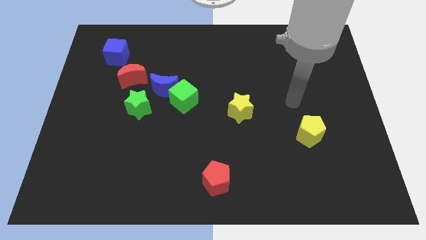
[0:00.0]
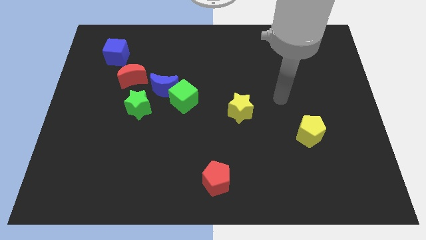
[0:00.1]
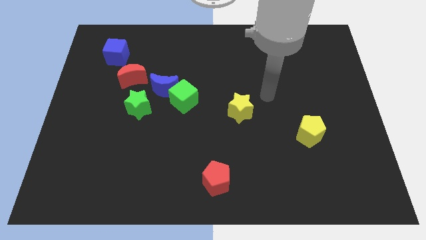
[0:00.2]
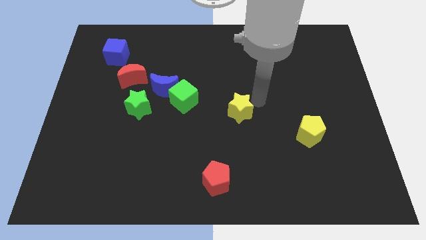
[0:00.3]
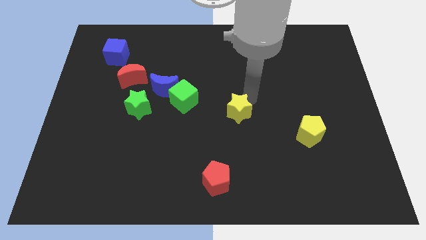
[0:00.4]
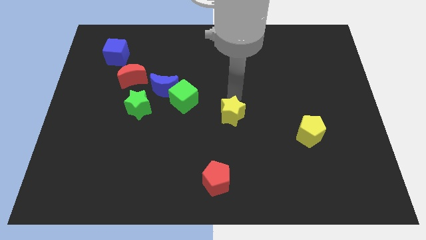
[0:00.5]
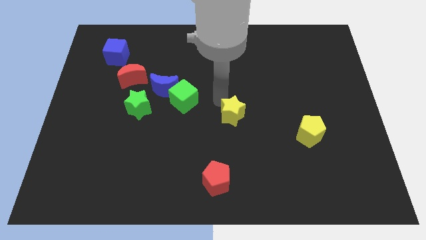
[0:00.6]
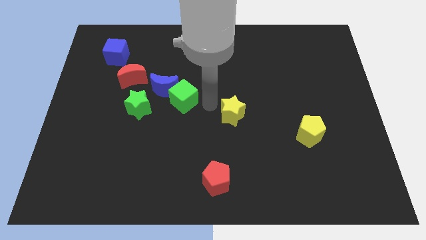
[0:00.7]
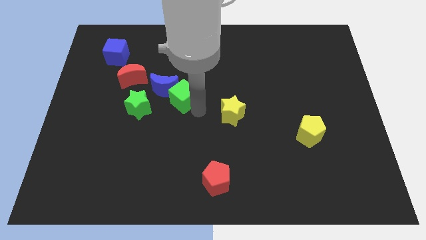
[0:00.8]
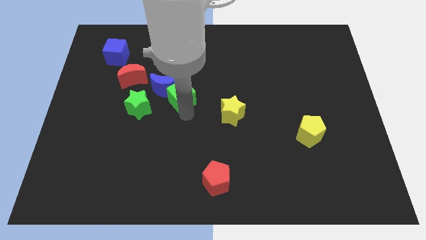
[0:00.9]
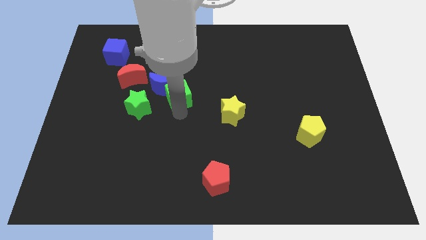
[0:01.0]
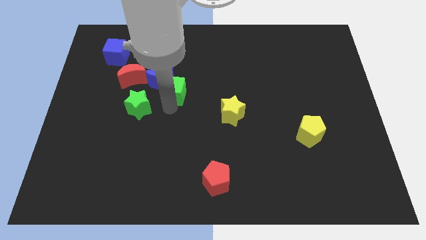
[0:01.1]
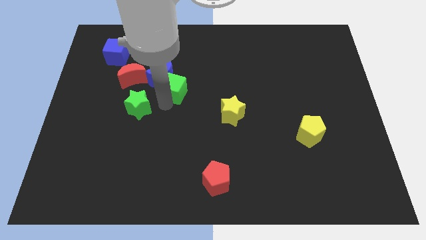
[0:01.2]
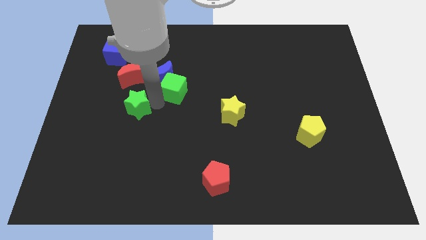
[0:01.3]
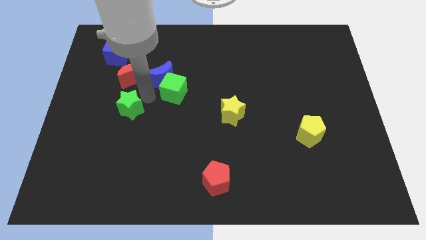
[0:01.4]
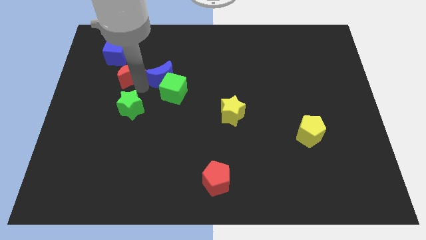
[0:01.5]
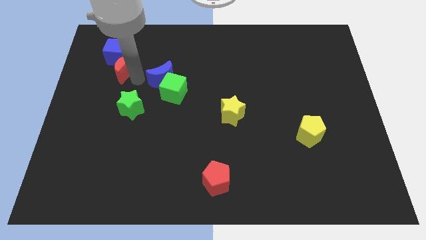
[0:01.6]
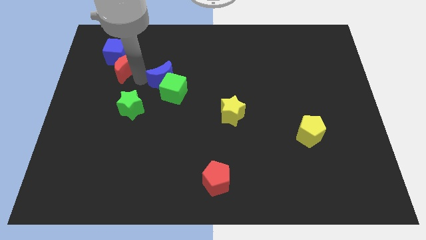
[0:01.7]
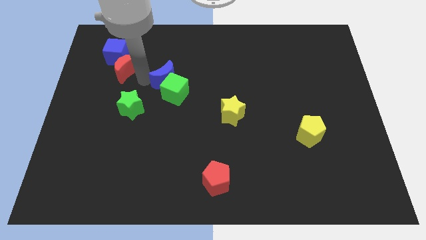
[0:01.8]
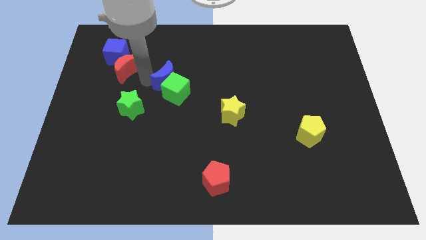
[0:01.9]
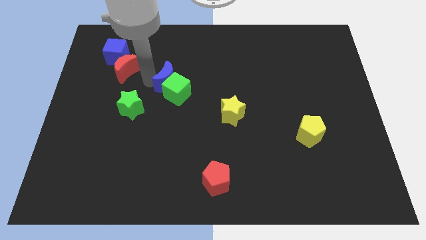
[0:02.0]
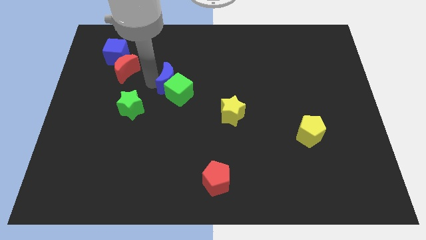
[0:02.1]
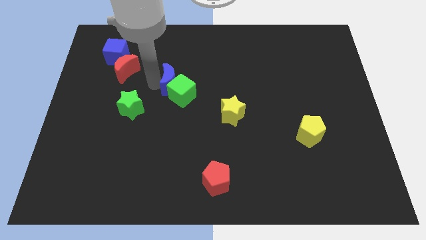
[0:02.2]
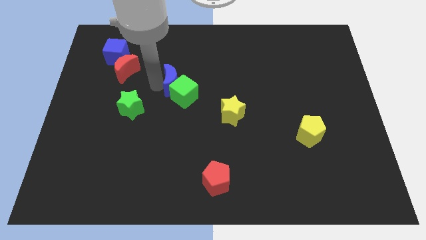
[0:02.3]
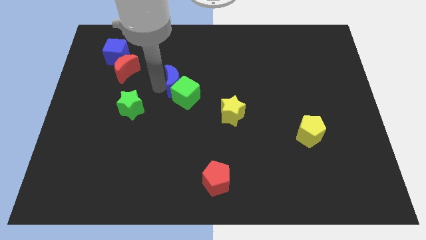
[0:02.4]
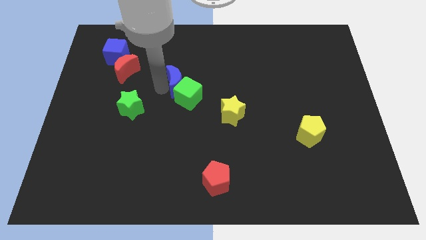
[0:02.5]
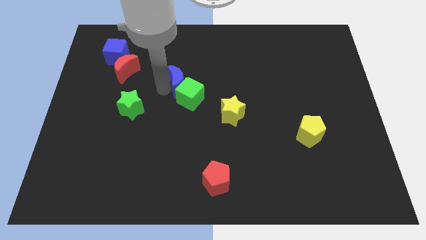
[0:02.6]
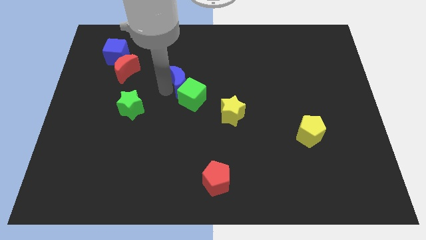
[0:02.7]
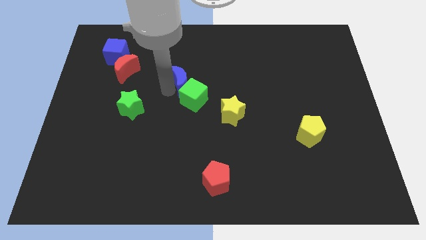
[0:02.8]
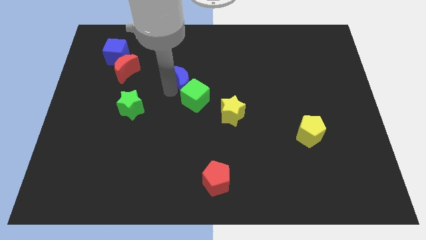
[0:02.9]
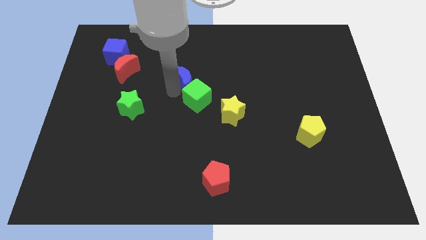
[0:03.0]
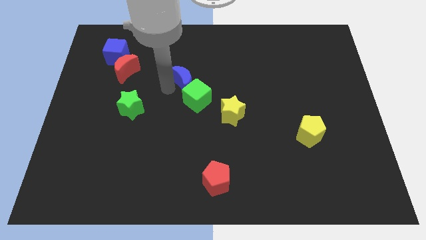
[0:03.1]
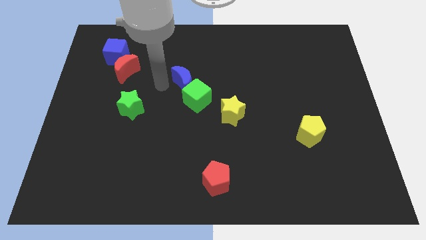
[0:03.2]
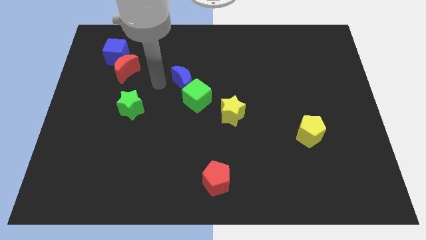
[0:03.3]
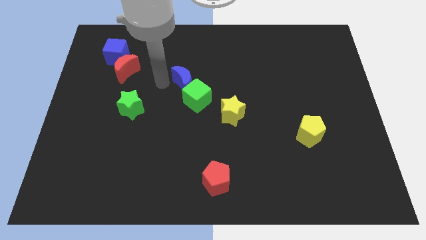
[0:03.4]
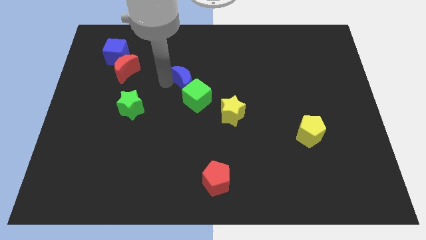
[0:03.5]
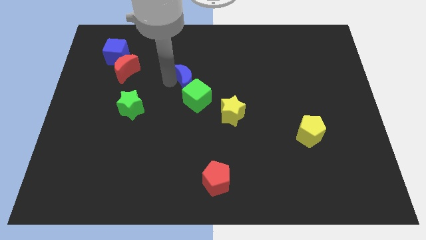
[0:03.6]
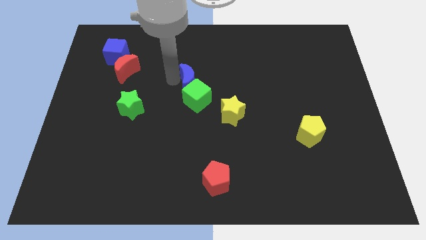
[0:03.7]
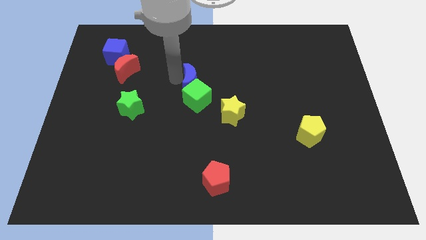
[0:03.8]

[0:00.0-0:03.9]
move the blue moon diagonally up and to the right of the green cube

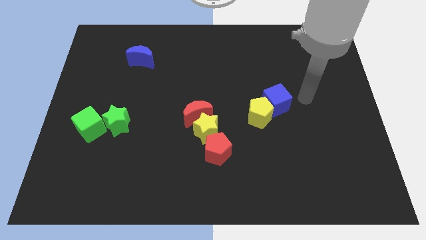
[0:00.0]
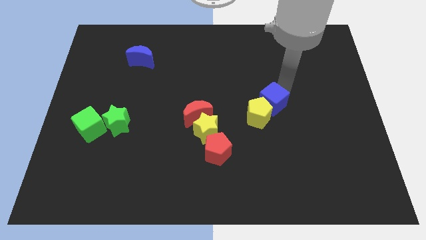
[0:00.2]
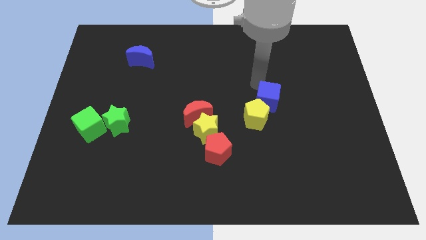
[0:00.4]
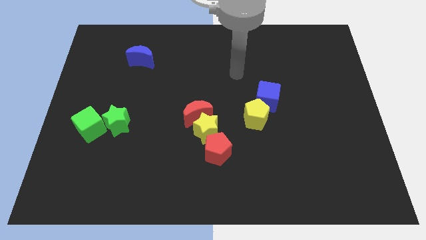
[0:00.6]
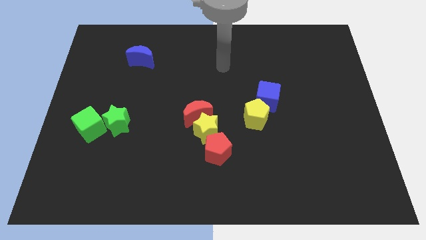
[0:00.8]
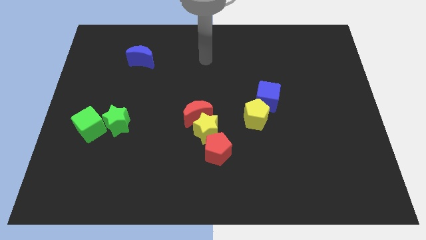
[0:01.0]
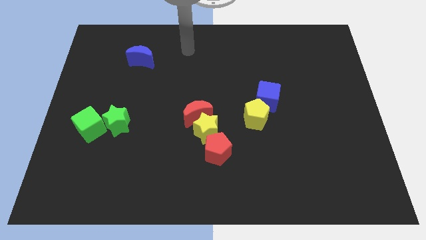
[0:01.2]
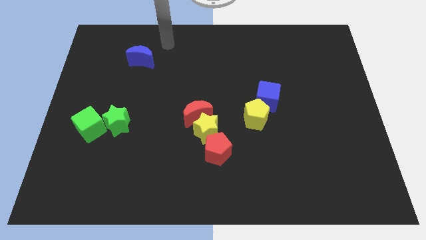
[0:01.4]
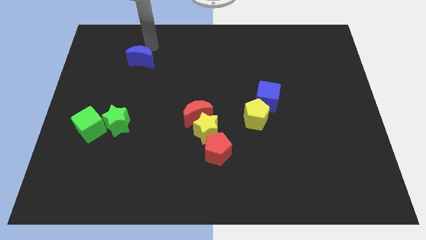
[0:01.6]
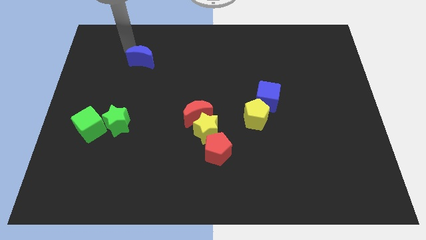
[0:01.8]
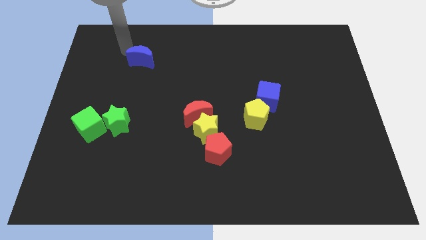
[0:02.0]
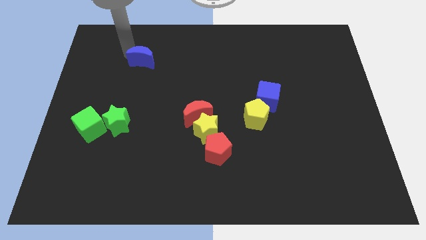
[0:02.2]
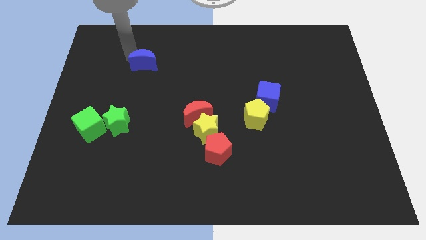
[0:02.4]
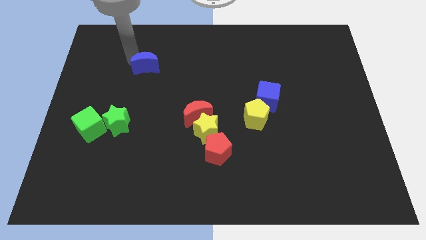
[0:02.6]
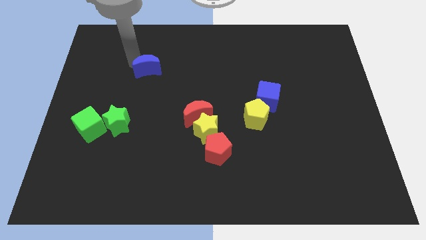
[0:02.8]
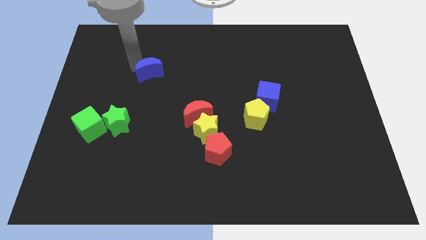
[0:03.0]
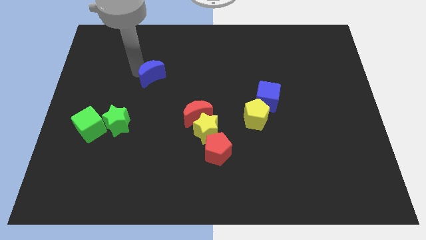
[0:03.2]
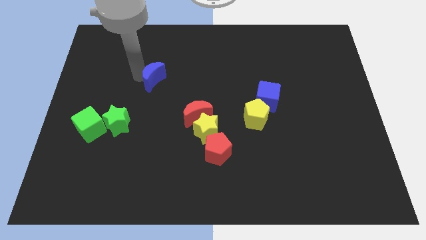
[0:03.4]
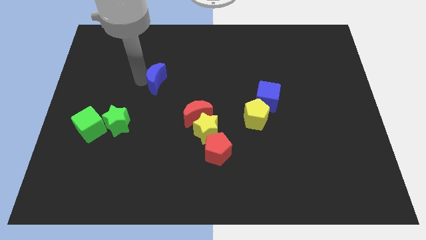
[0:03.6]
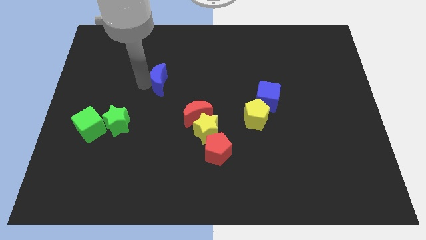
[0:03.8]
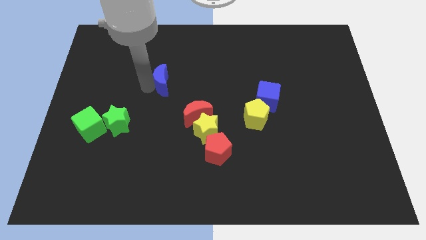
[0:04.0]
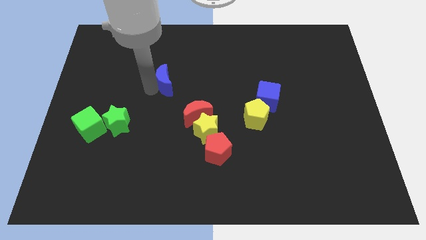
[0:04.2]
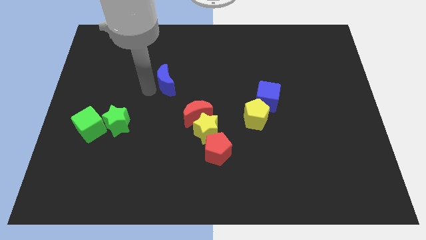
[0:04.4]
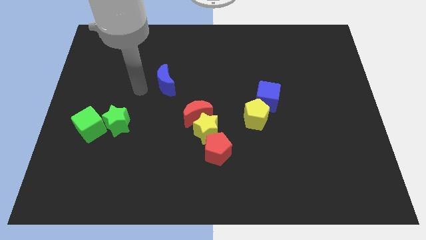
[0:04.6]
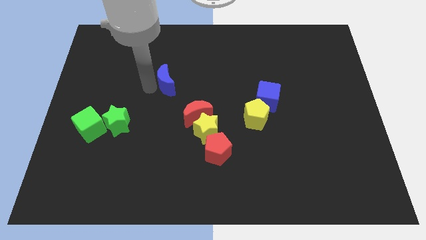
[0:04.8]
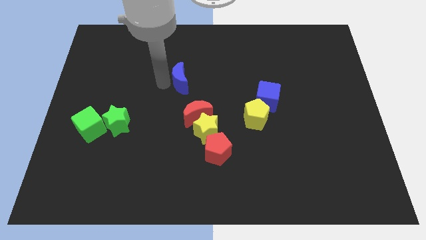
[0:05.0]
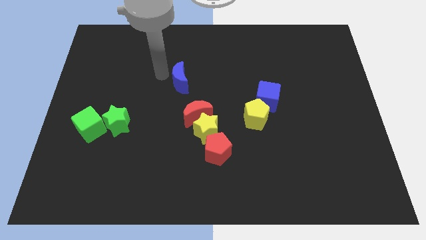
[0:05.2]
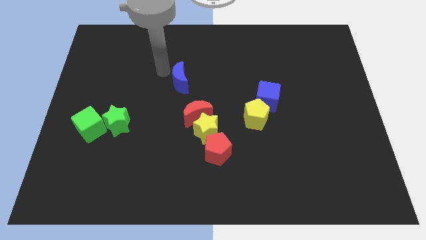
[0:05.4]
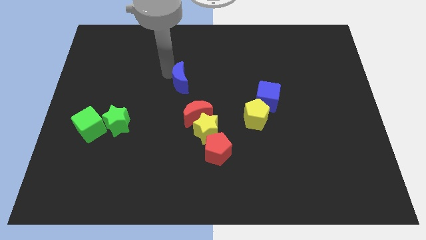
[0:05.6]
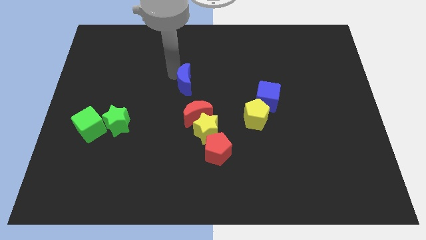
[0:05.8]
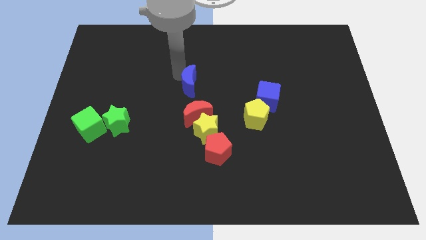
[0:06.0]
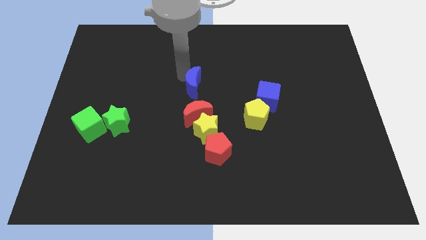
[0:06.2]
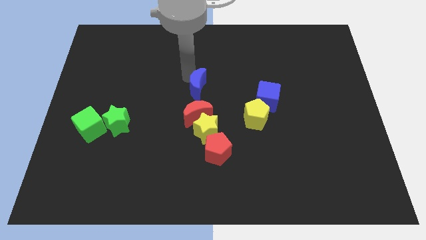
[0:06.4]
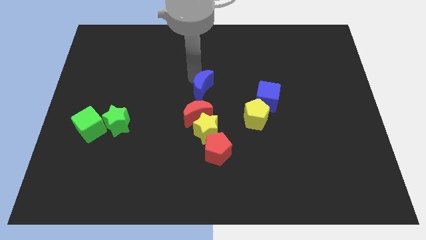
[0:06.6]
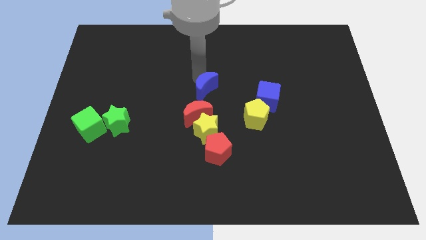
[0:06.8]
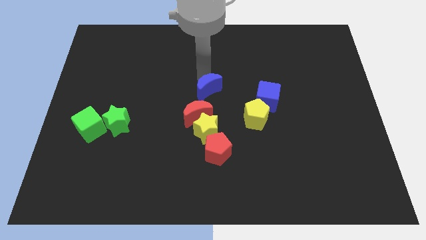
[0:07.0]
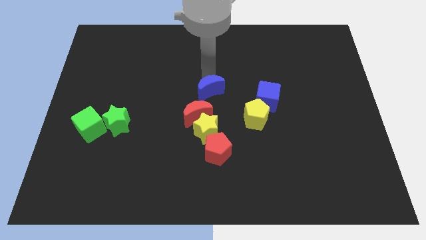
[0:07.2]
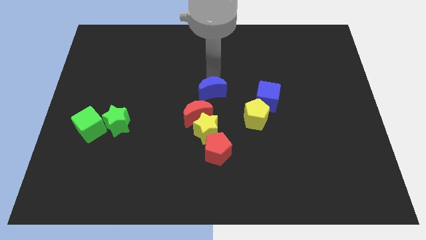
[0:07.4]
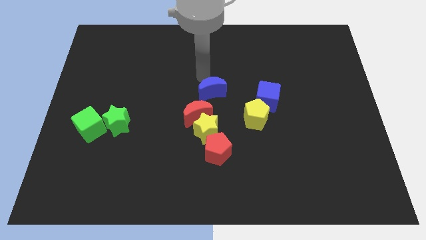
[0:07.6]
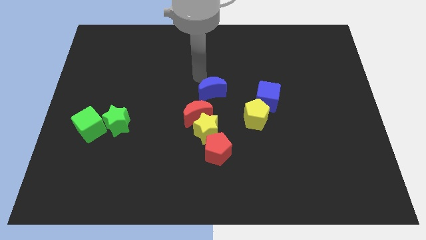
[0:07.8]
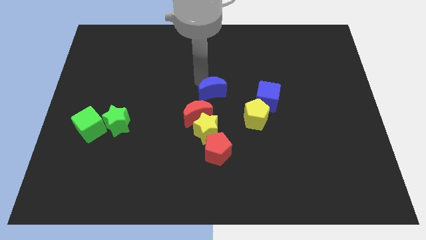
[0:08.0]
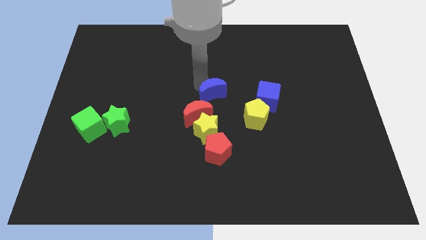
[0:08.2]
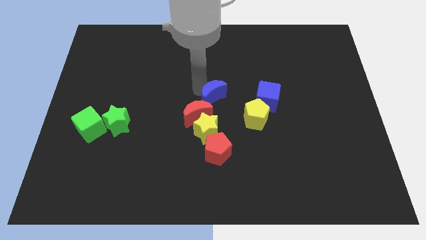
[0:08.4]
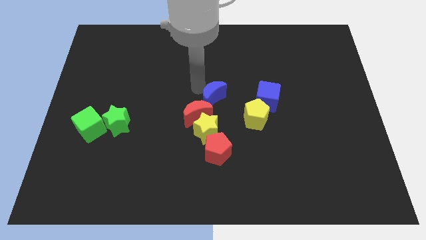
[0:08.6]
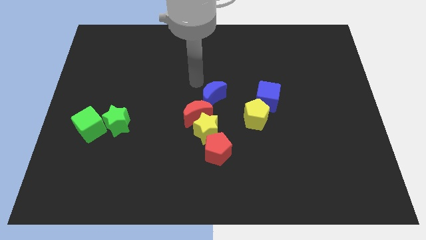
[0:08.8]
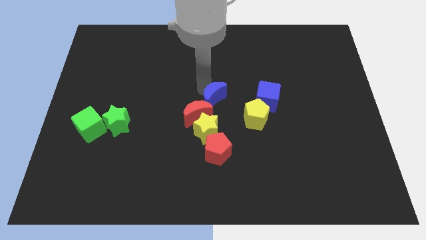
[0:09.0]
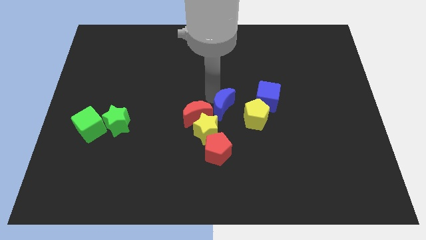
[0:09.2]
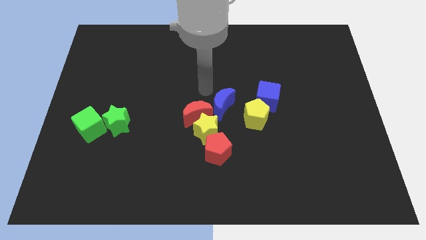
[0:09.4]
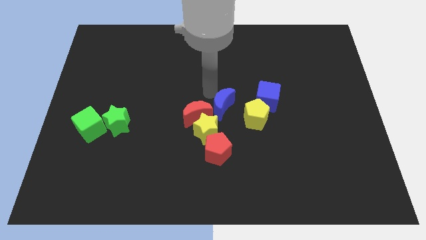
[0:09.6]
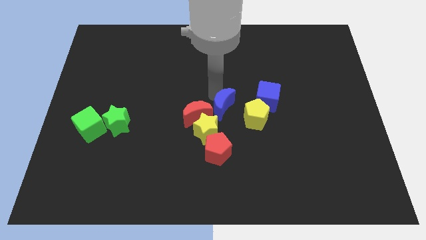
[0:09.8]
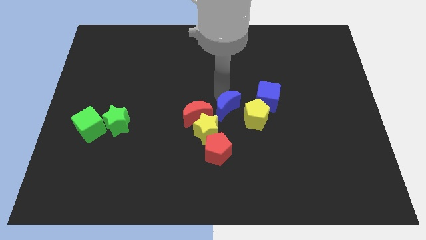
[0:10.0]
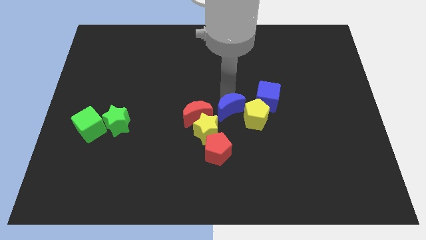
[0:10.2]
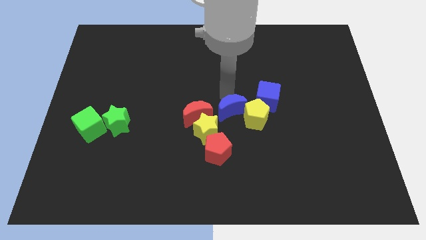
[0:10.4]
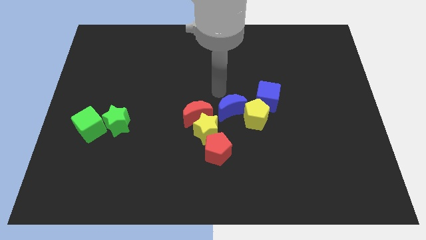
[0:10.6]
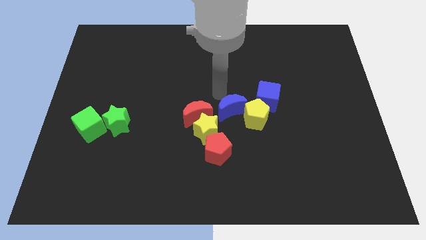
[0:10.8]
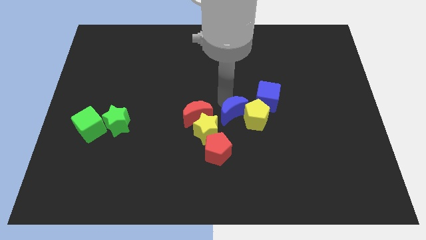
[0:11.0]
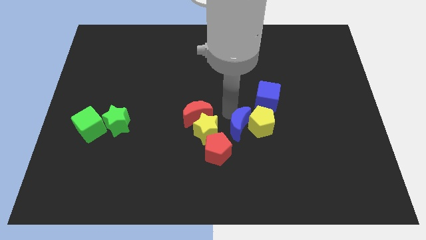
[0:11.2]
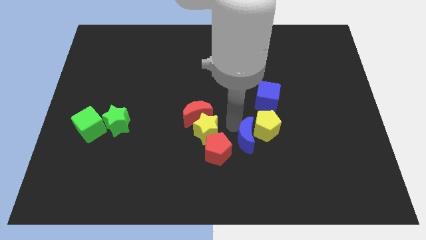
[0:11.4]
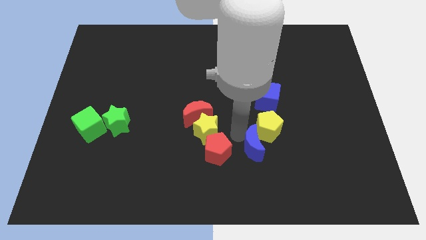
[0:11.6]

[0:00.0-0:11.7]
slide the blue moon below the blue cube
